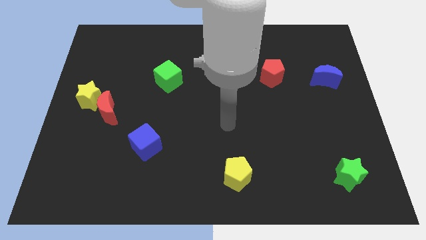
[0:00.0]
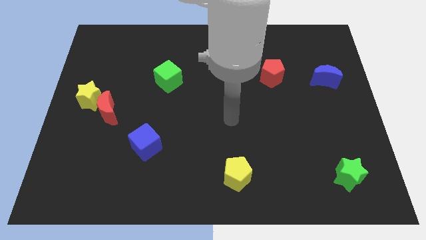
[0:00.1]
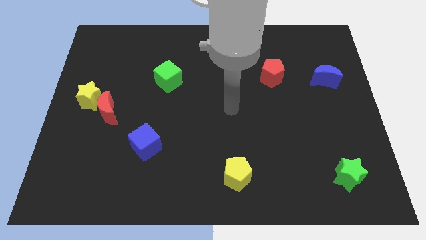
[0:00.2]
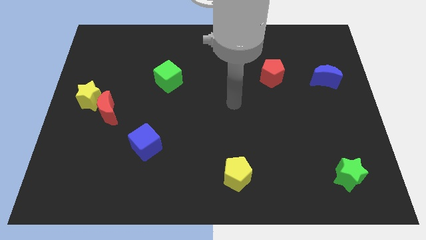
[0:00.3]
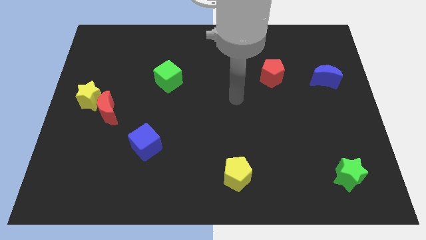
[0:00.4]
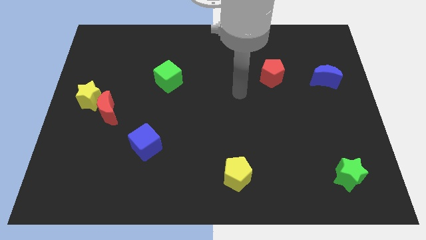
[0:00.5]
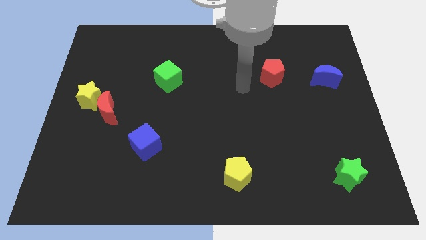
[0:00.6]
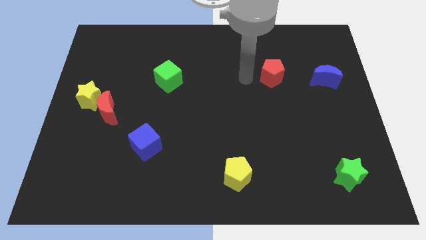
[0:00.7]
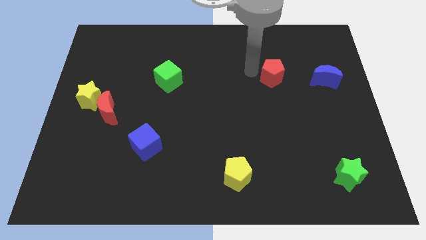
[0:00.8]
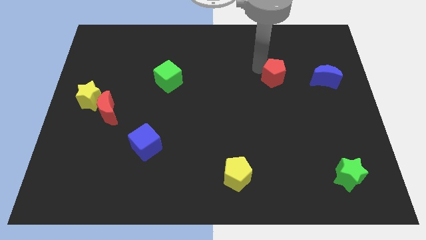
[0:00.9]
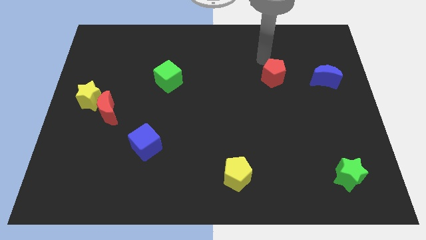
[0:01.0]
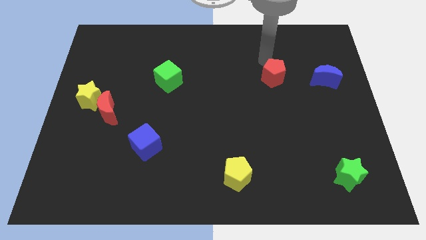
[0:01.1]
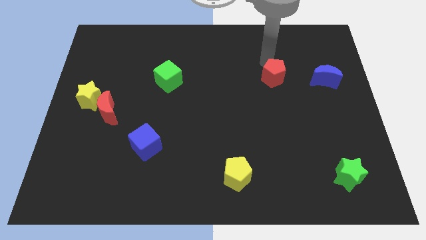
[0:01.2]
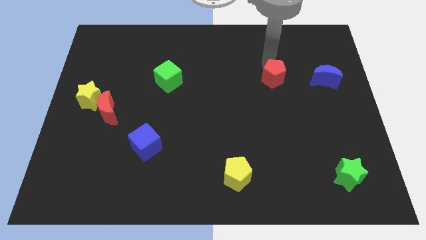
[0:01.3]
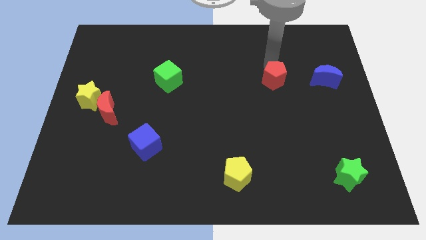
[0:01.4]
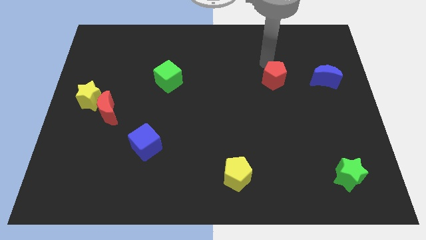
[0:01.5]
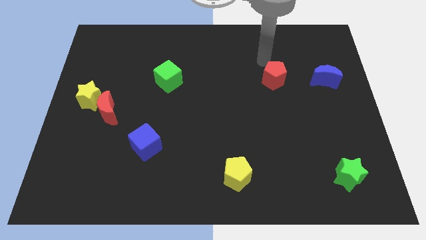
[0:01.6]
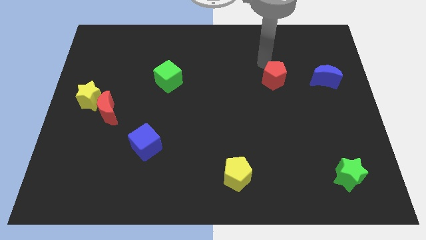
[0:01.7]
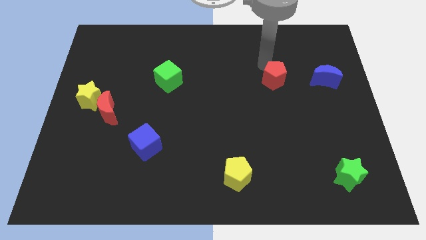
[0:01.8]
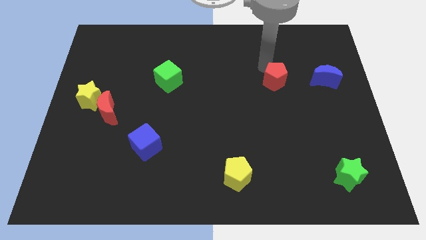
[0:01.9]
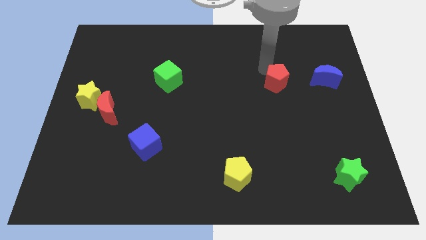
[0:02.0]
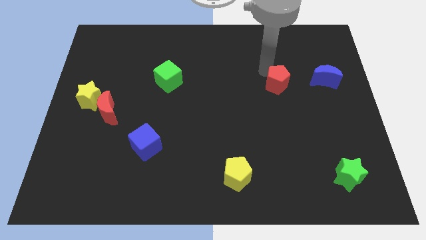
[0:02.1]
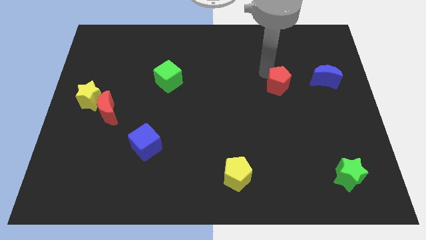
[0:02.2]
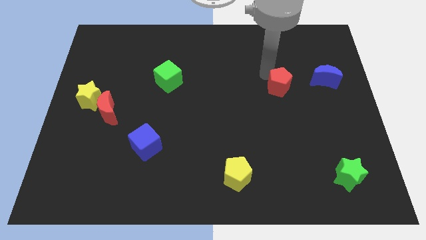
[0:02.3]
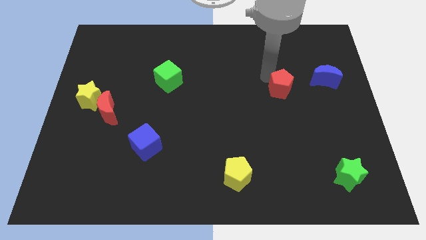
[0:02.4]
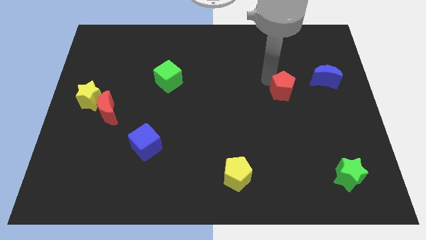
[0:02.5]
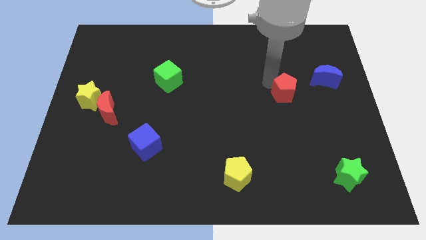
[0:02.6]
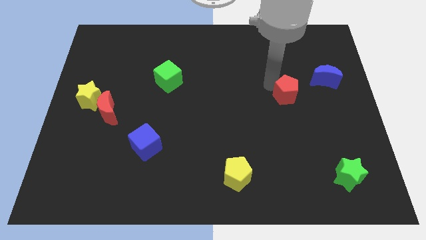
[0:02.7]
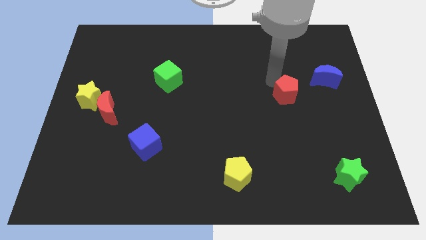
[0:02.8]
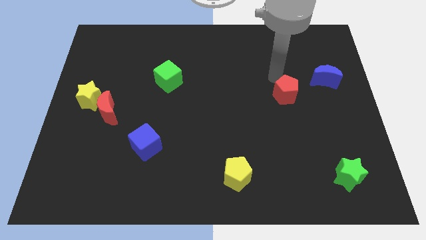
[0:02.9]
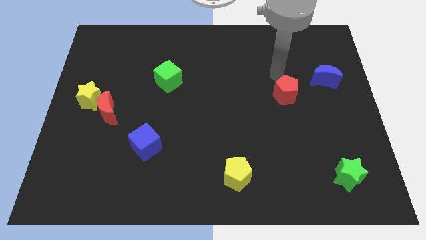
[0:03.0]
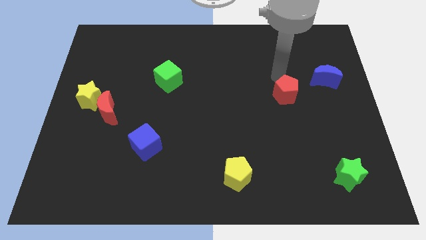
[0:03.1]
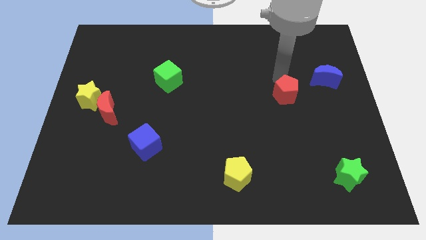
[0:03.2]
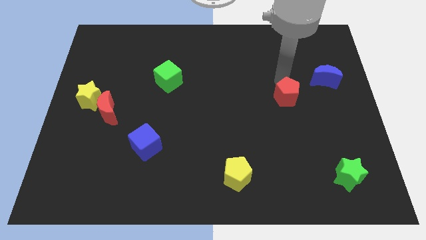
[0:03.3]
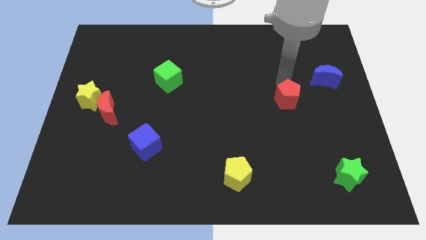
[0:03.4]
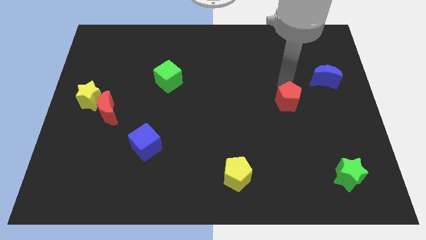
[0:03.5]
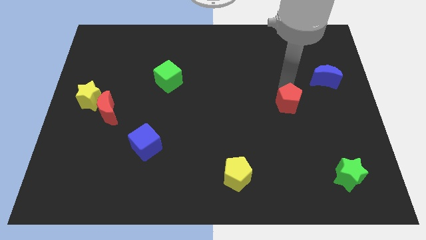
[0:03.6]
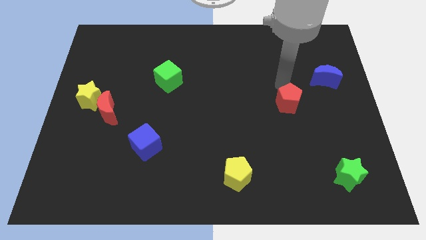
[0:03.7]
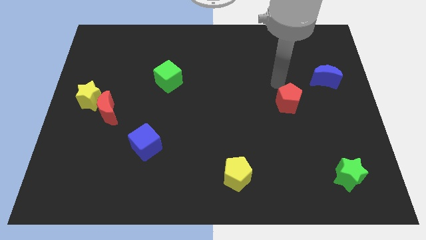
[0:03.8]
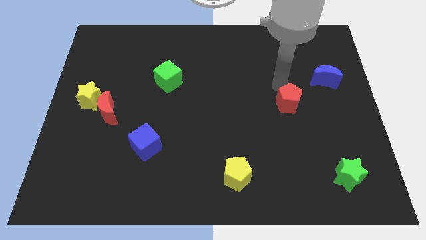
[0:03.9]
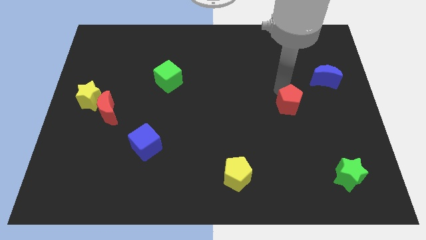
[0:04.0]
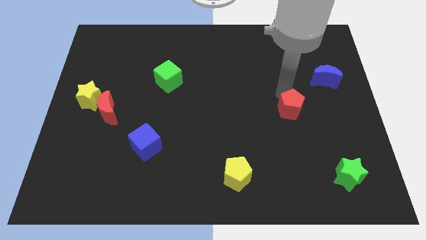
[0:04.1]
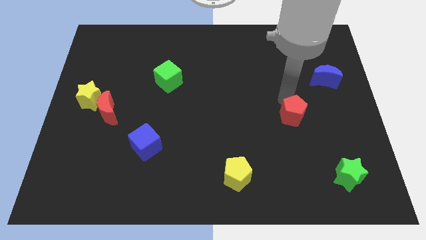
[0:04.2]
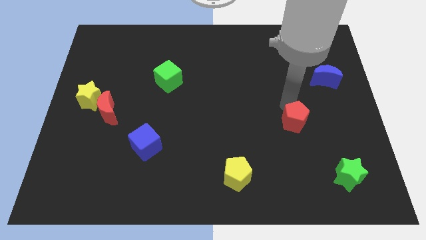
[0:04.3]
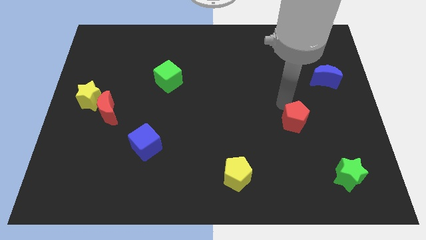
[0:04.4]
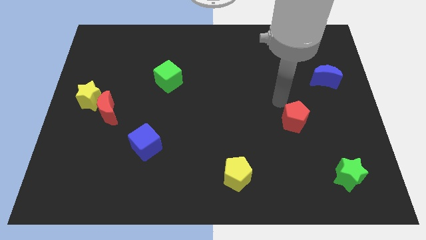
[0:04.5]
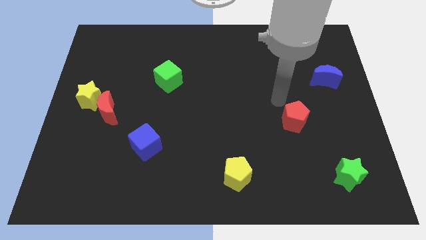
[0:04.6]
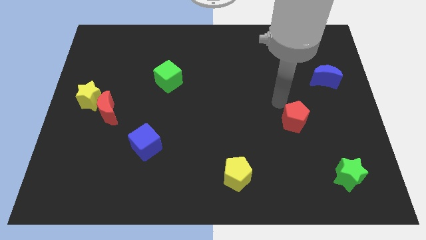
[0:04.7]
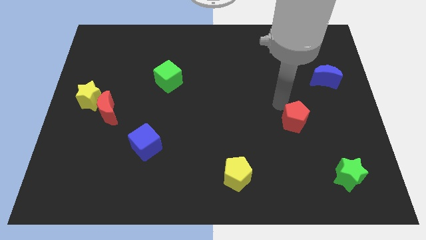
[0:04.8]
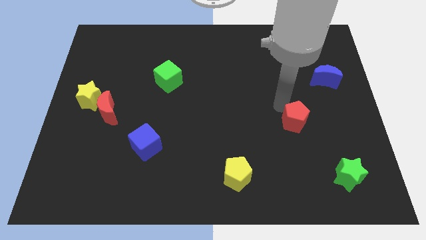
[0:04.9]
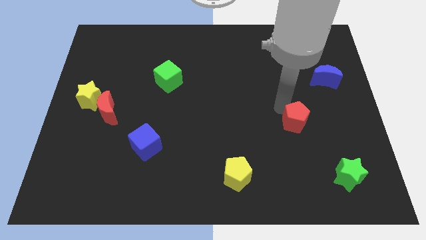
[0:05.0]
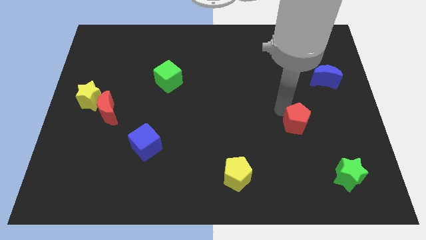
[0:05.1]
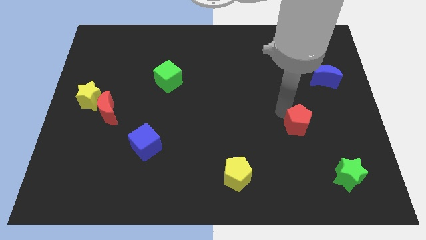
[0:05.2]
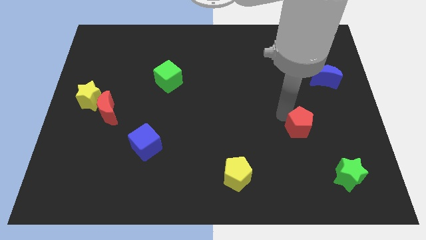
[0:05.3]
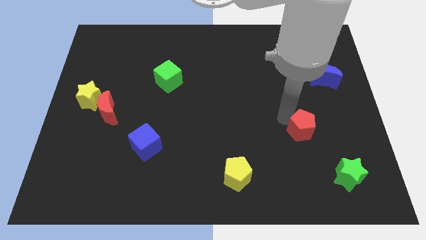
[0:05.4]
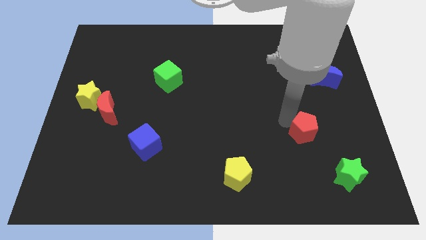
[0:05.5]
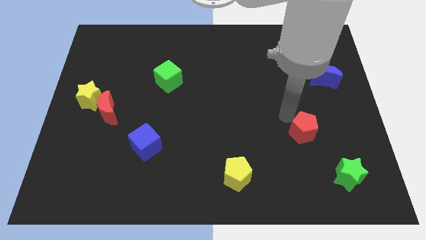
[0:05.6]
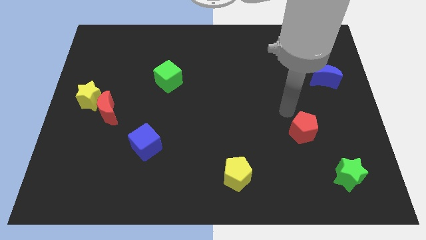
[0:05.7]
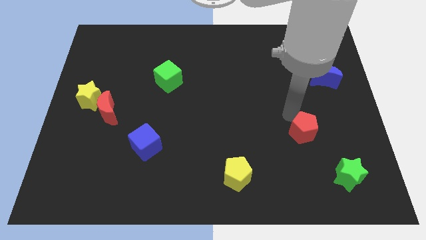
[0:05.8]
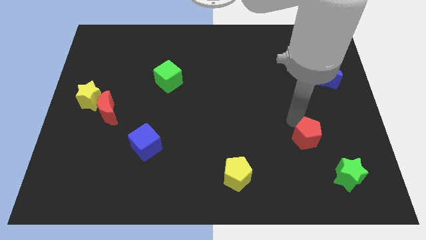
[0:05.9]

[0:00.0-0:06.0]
move the red pentagon diagonally up and to the left of the green star

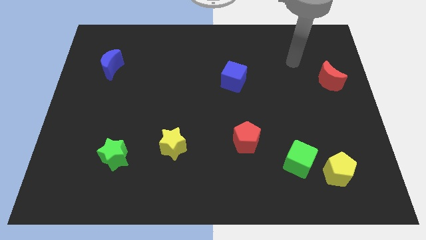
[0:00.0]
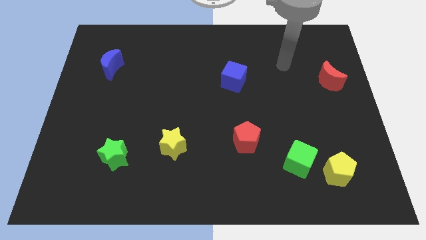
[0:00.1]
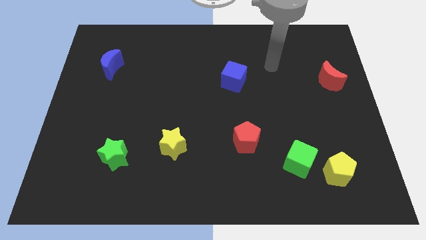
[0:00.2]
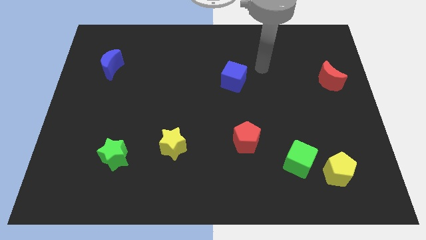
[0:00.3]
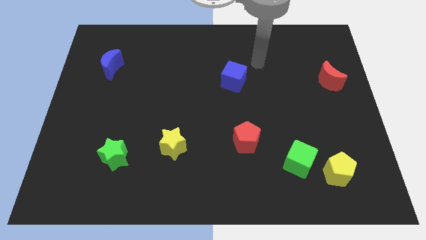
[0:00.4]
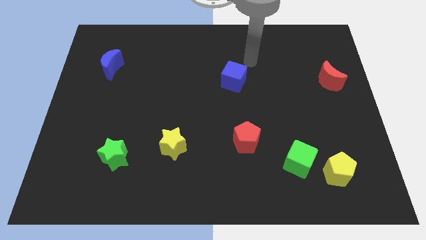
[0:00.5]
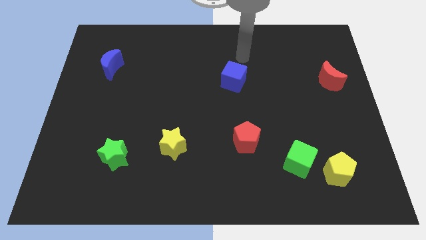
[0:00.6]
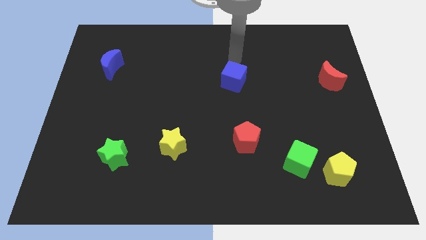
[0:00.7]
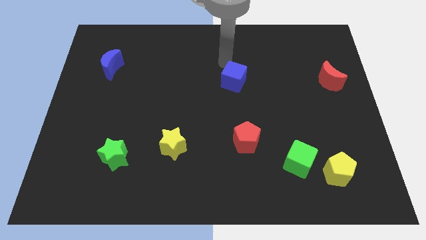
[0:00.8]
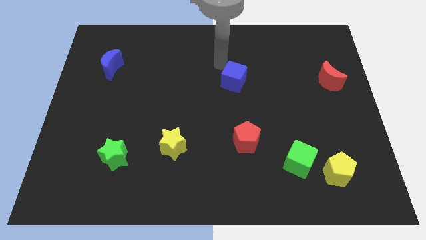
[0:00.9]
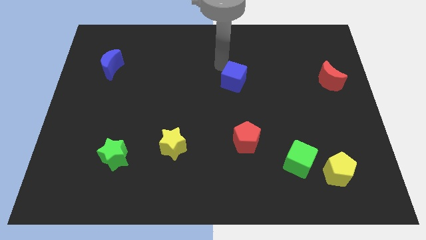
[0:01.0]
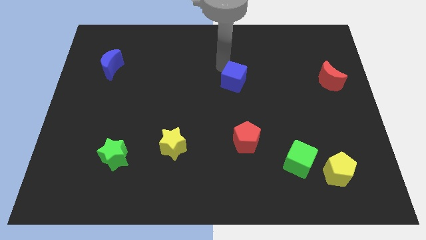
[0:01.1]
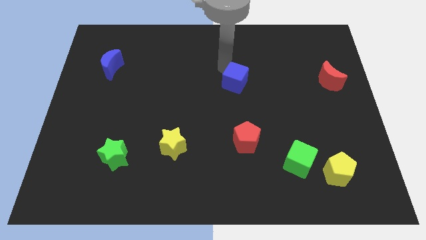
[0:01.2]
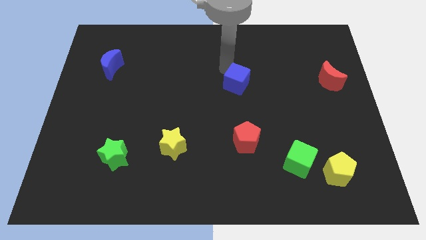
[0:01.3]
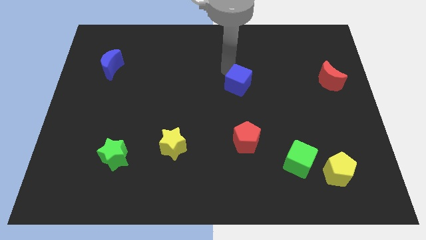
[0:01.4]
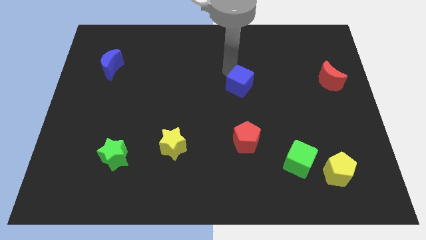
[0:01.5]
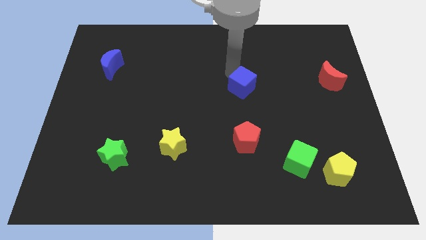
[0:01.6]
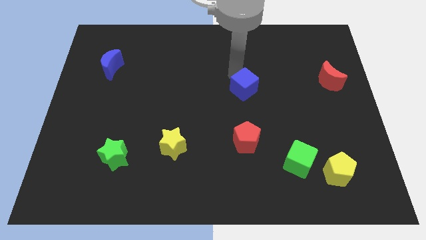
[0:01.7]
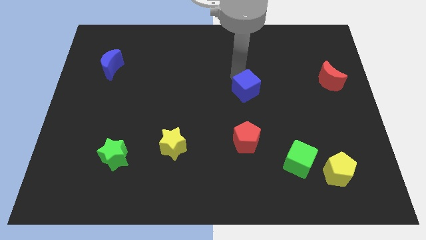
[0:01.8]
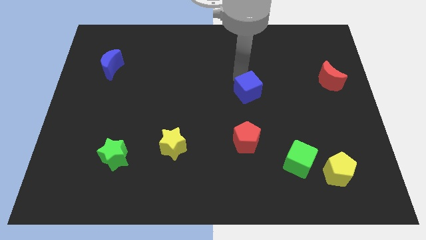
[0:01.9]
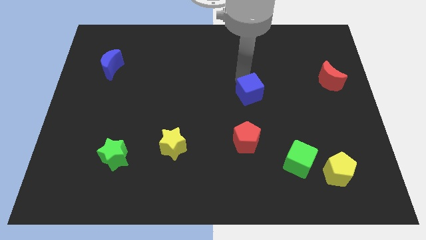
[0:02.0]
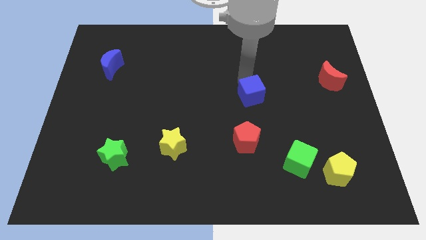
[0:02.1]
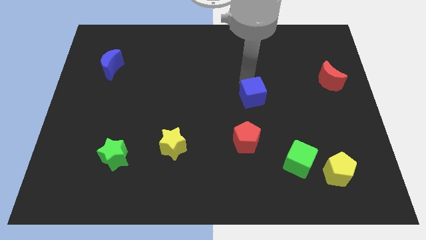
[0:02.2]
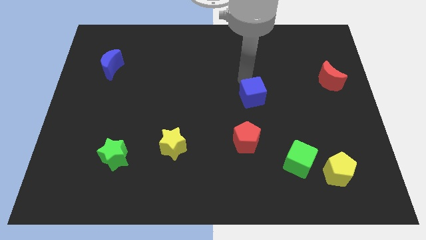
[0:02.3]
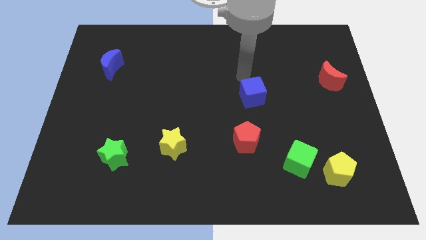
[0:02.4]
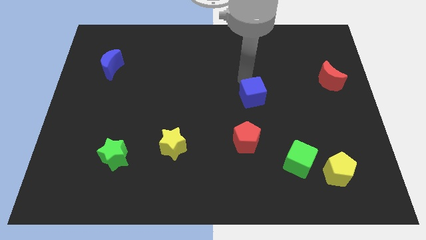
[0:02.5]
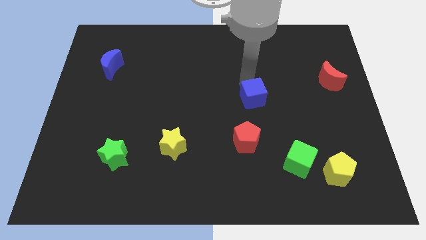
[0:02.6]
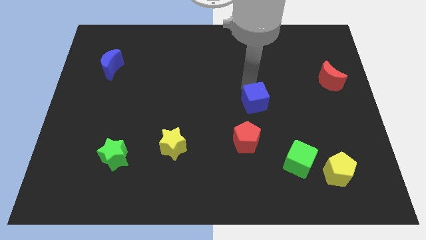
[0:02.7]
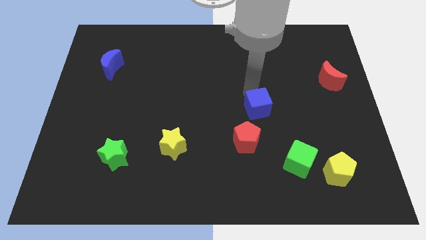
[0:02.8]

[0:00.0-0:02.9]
slide the blue cube diagonally up and to the right of the red pentagon
